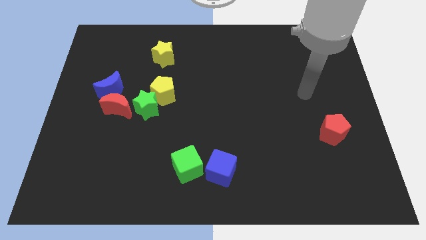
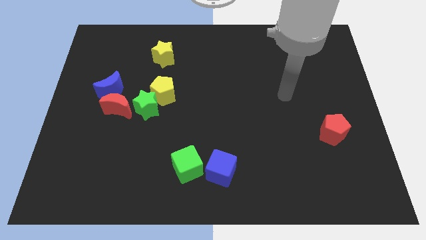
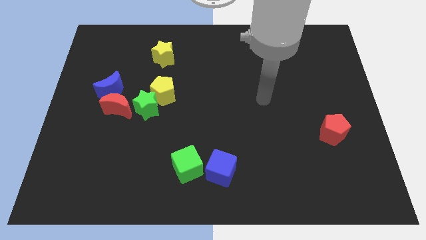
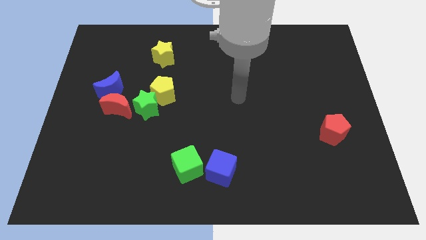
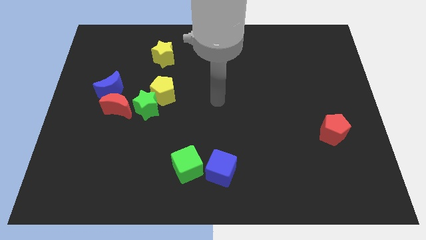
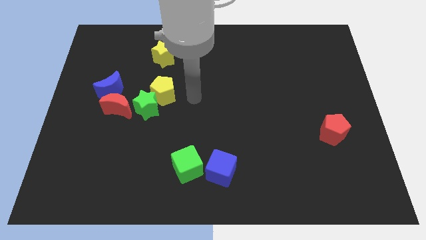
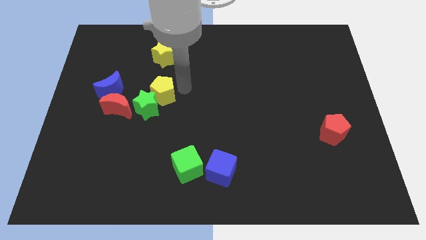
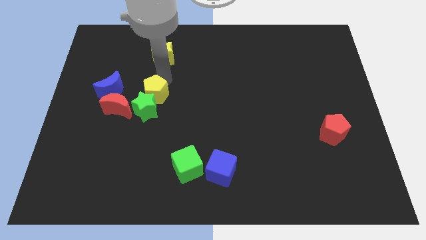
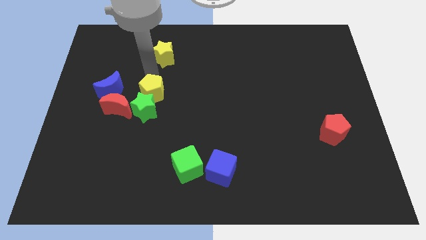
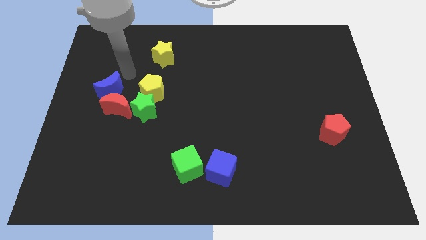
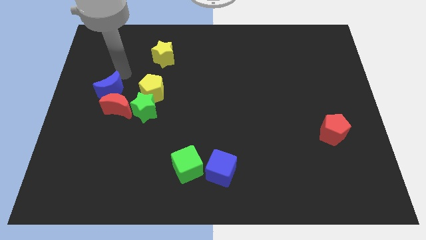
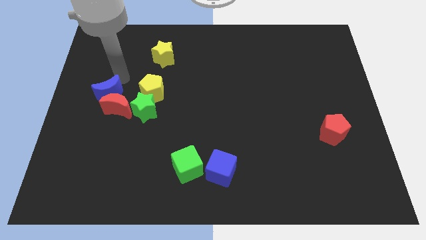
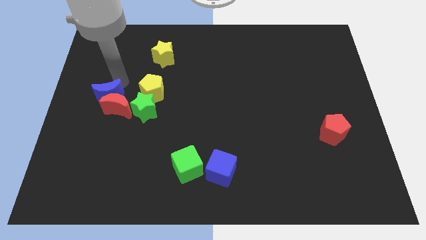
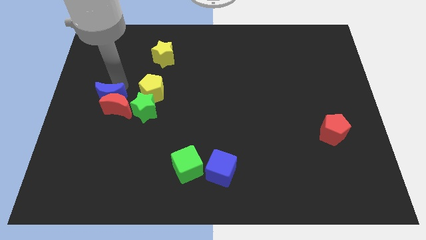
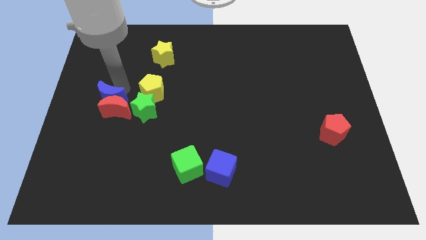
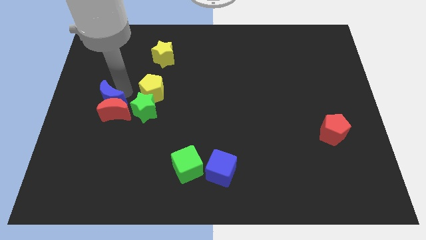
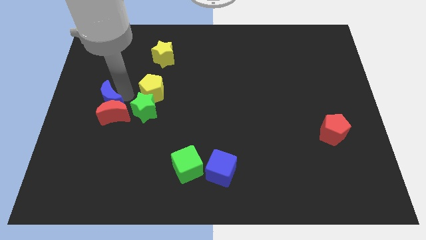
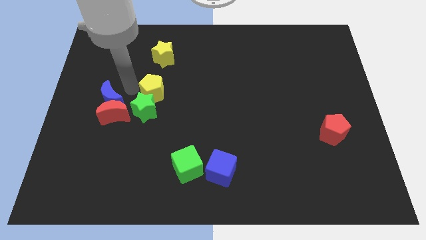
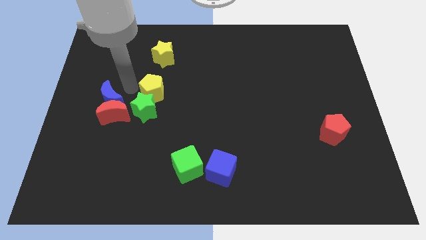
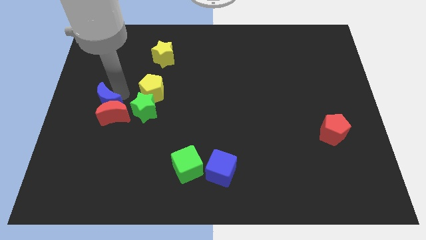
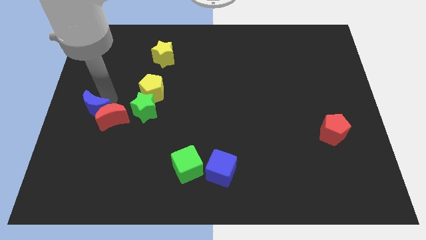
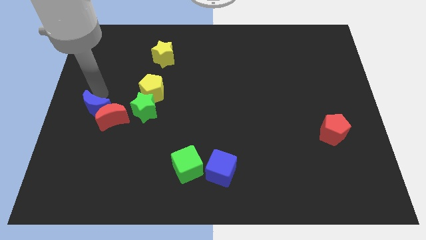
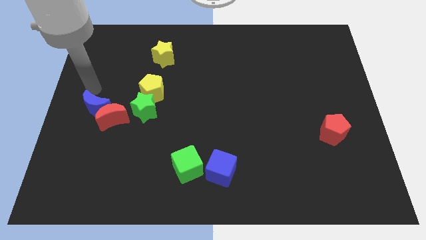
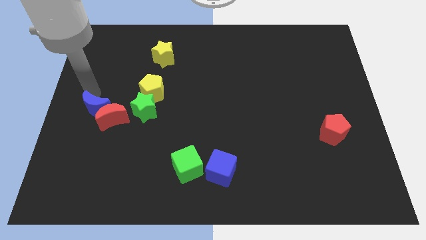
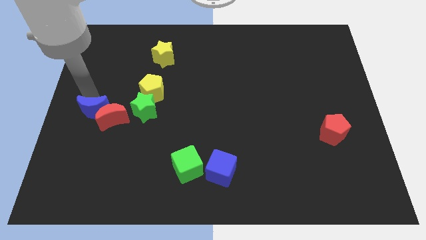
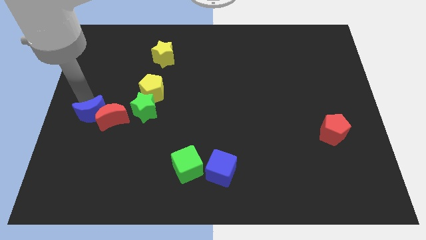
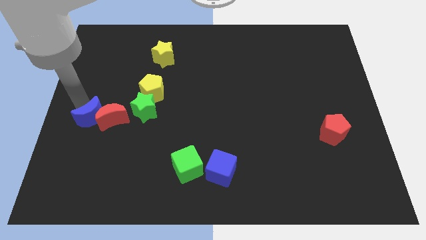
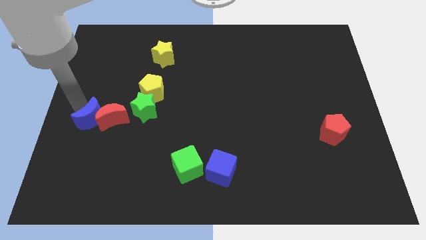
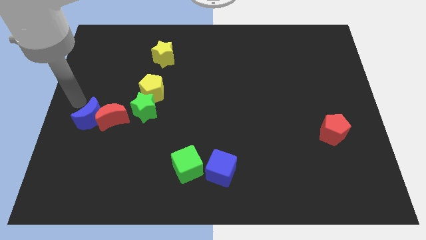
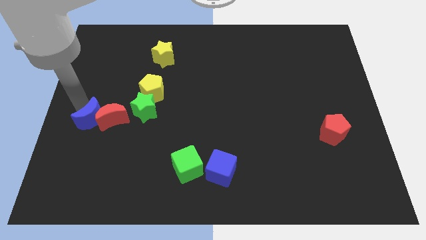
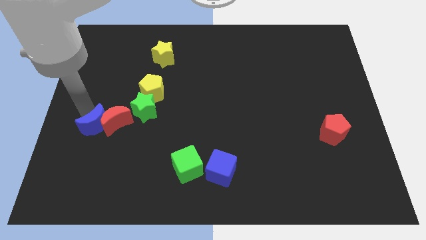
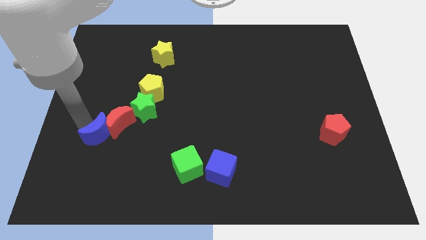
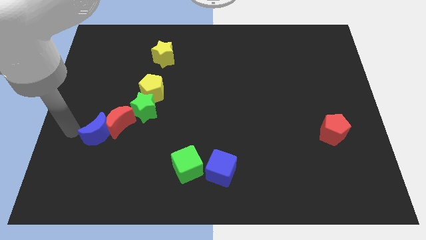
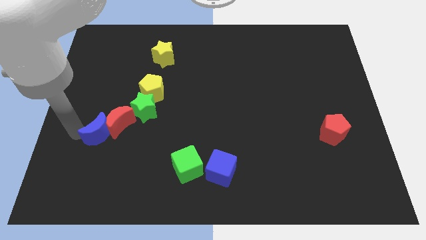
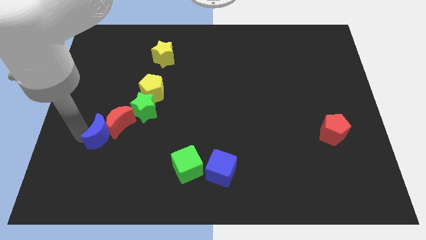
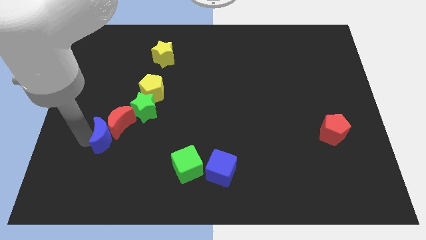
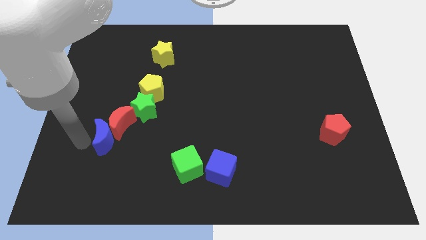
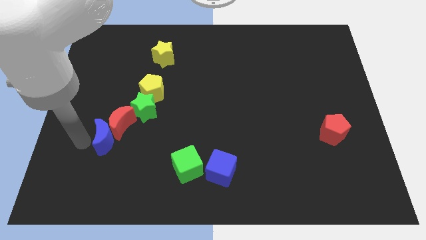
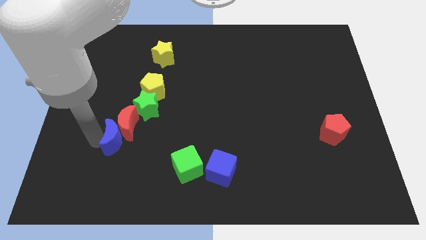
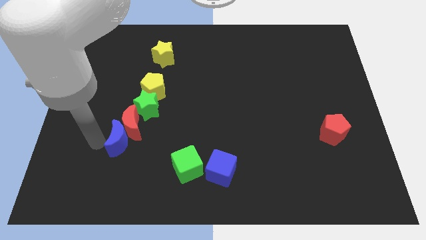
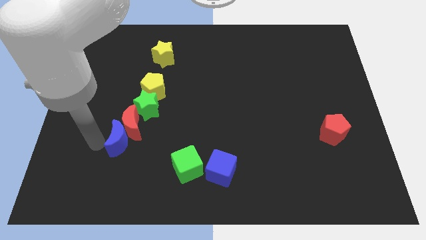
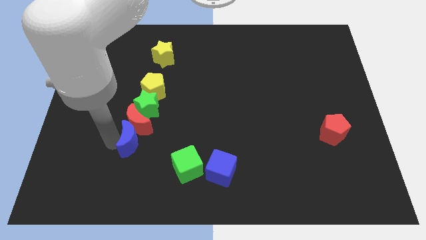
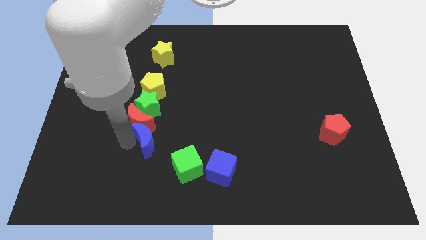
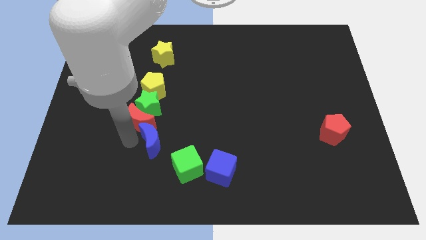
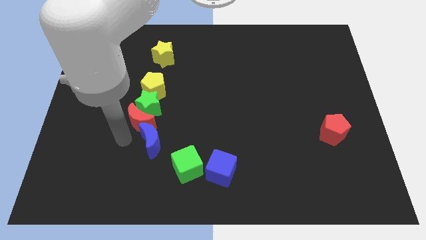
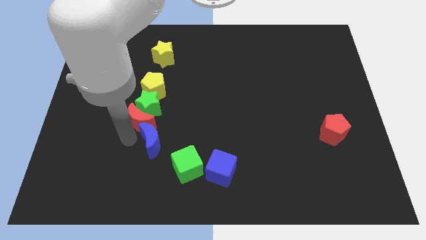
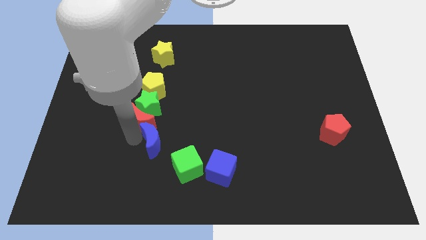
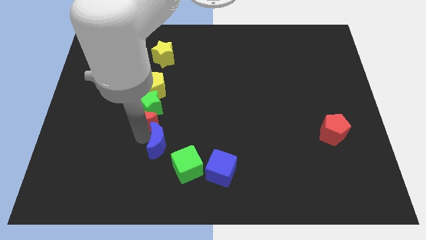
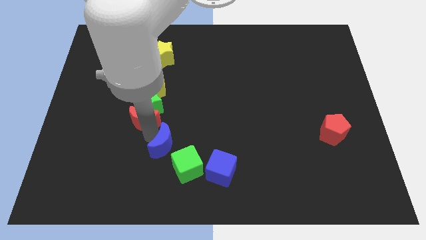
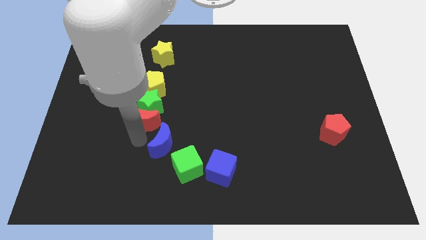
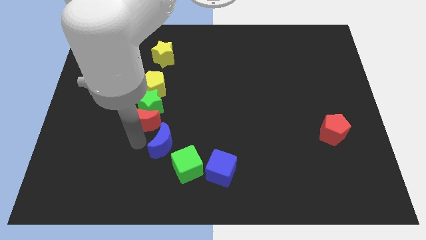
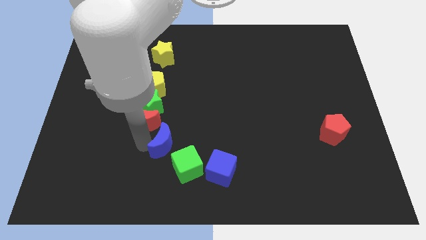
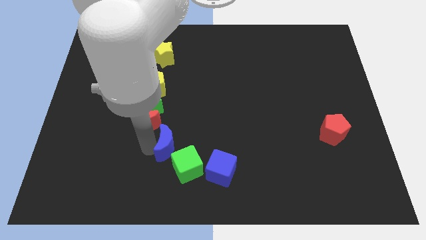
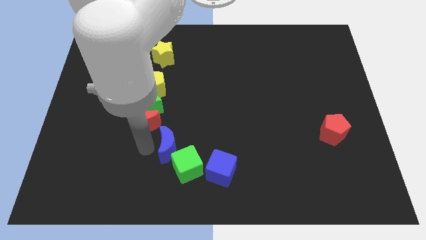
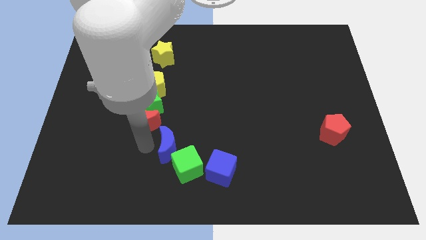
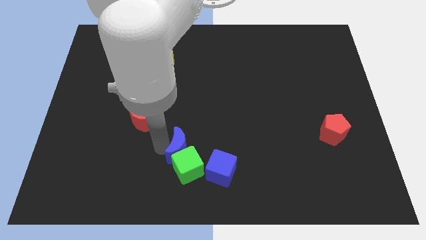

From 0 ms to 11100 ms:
put the blue moon to the top left side of the blue cube

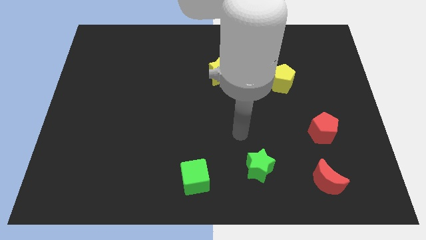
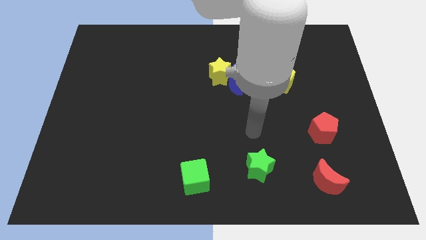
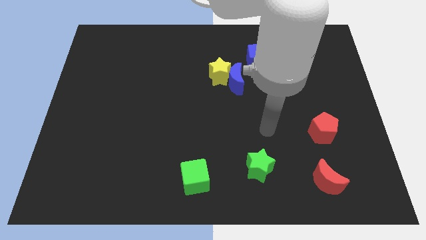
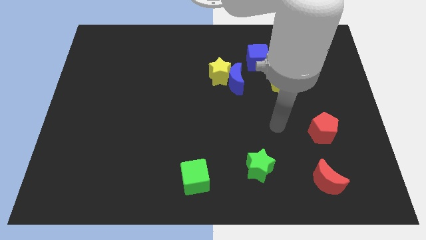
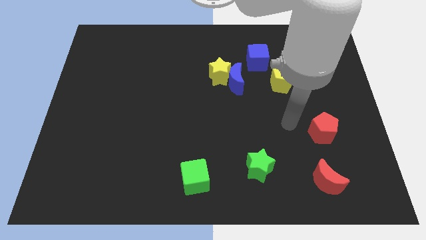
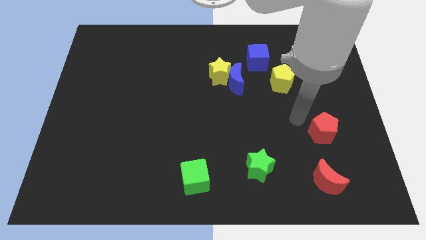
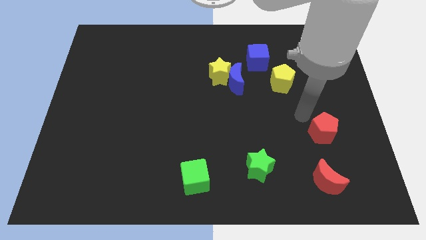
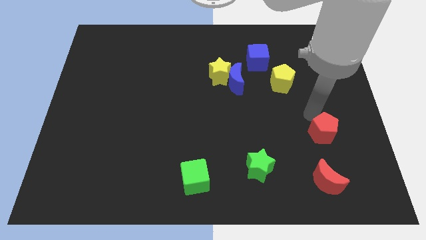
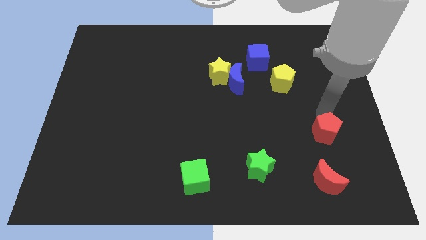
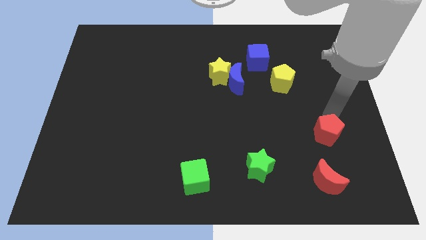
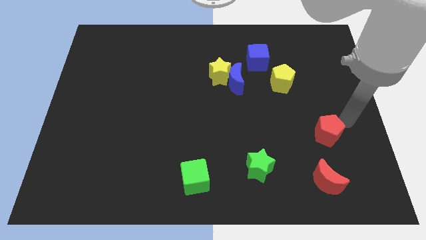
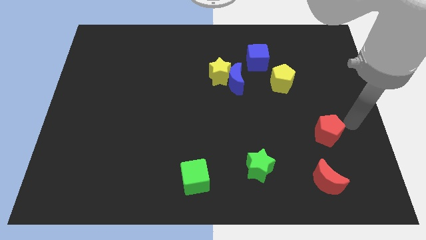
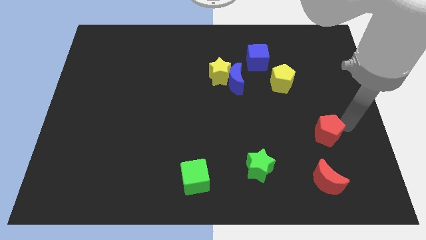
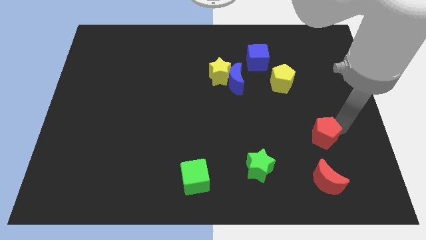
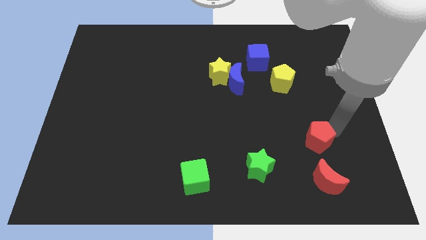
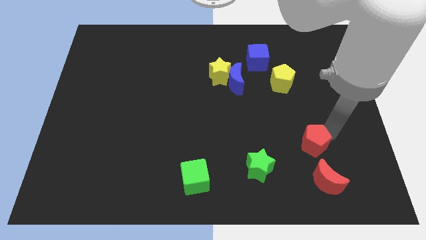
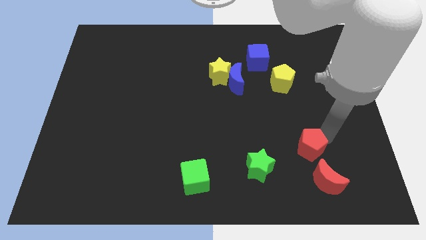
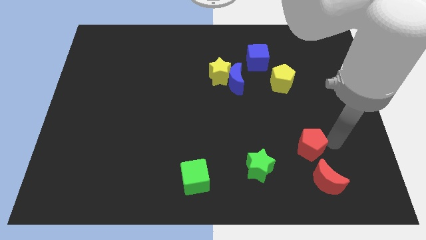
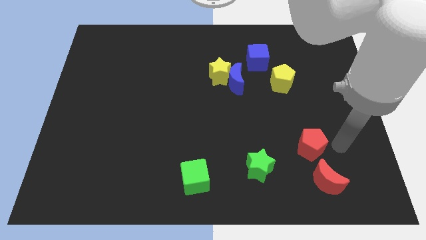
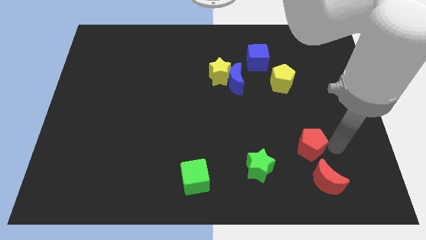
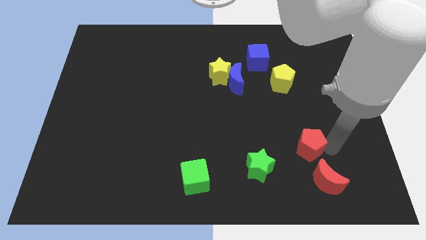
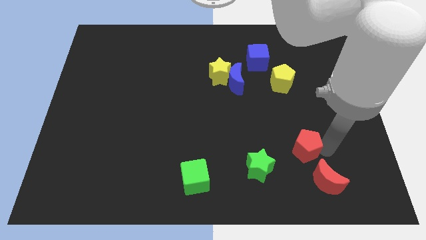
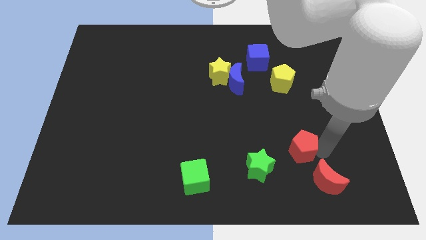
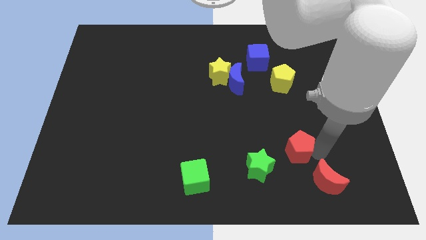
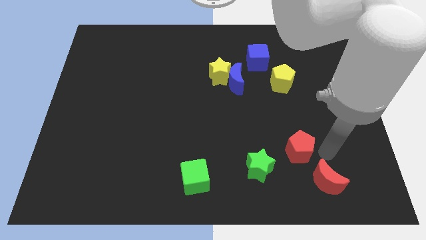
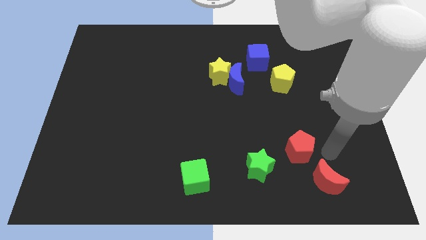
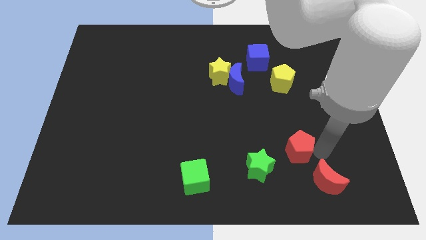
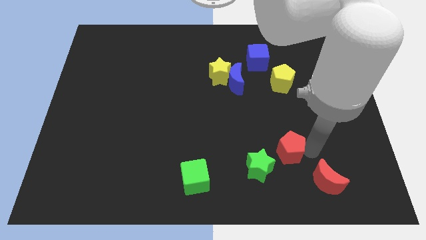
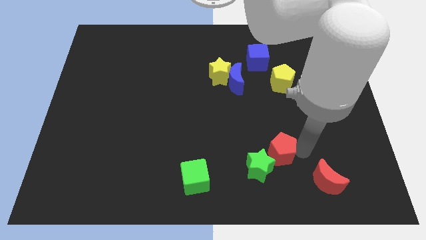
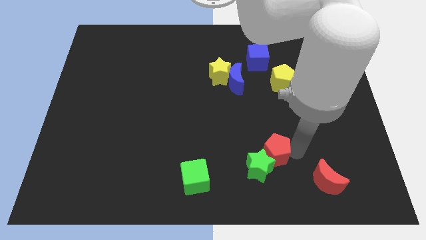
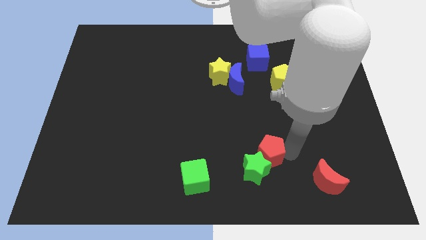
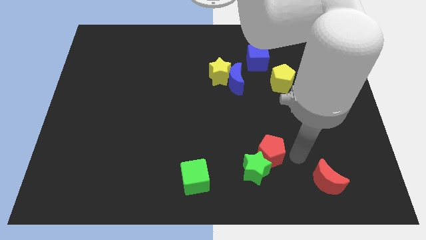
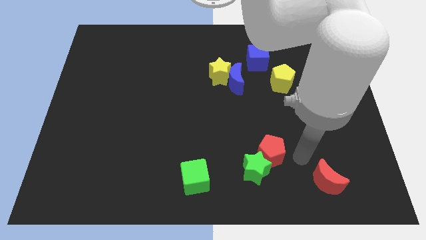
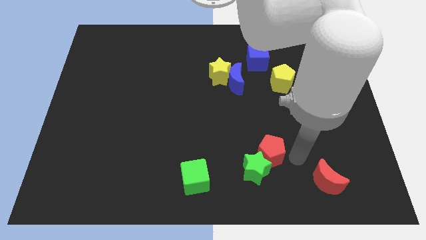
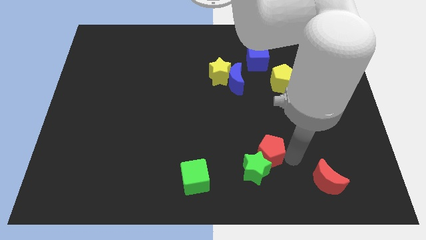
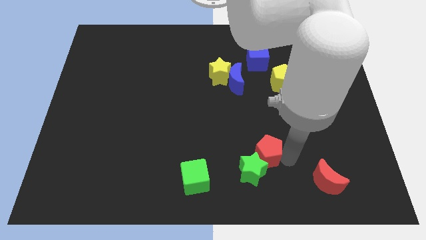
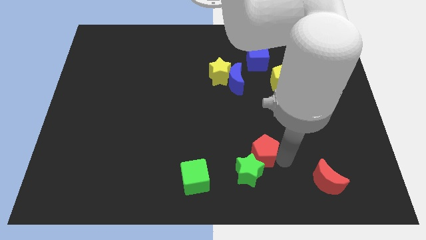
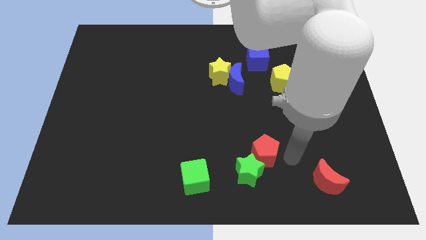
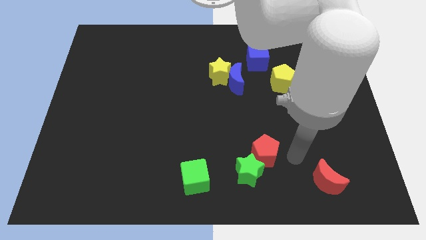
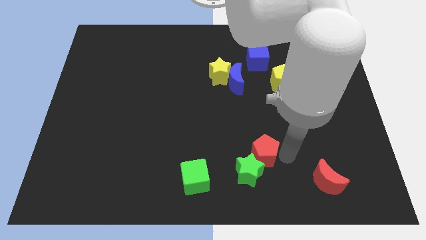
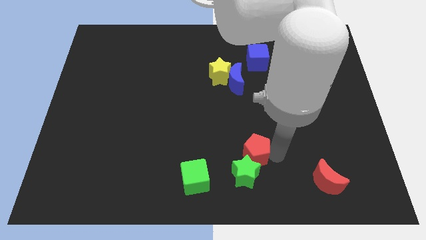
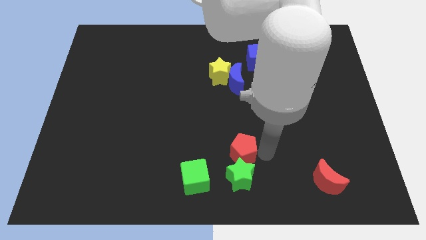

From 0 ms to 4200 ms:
move the red pentagon to the top left side of the green star
